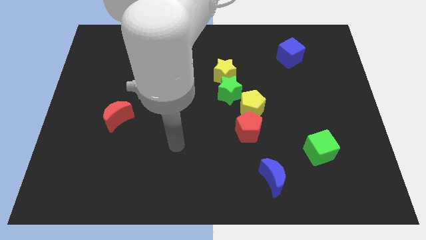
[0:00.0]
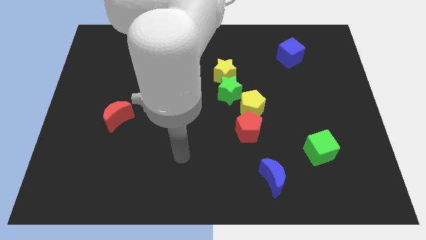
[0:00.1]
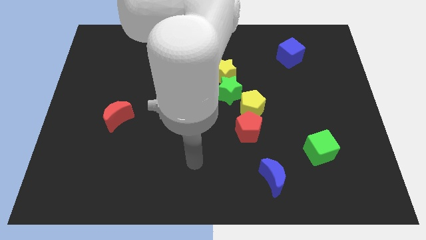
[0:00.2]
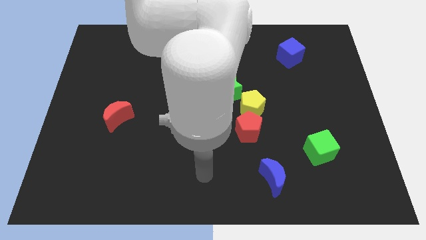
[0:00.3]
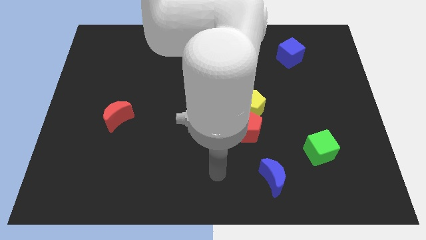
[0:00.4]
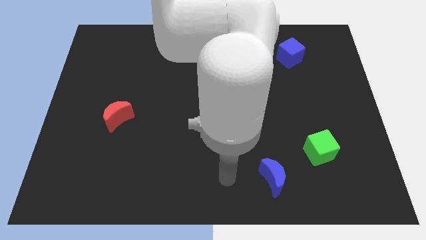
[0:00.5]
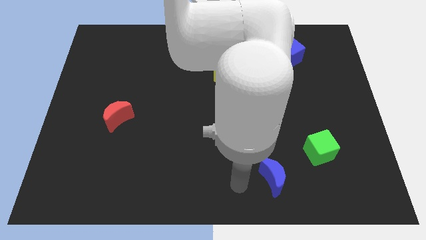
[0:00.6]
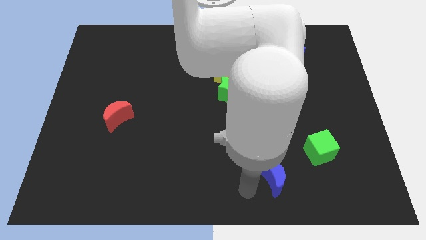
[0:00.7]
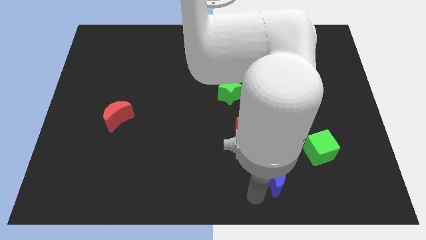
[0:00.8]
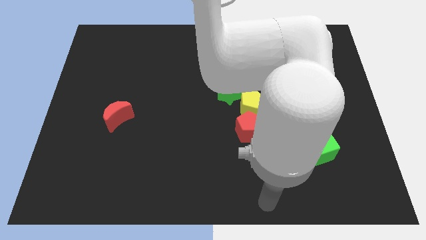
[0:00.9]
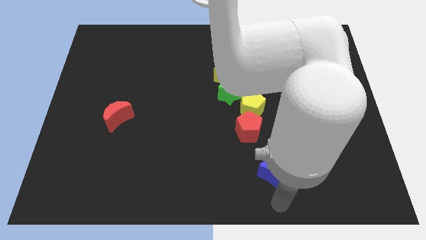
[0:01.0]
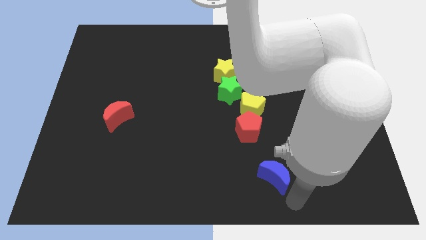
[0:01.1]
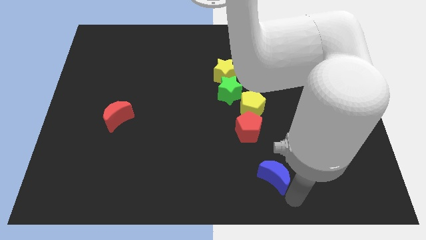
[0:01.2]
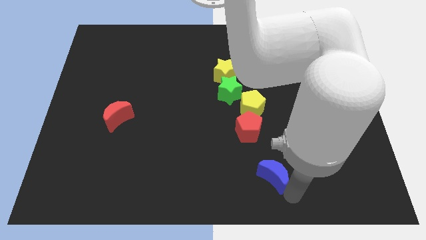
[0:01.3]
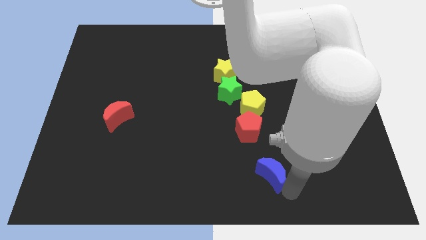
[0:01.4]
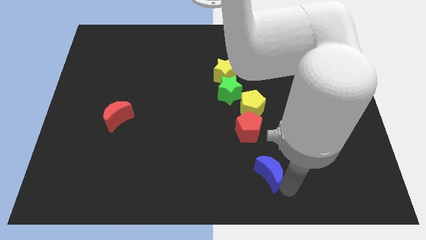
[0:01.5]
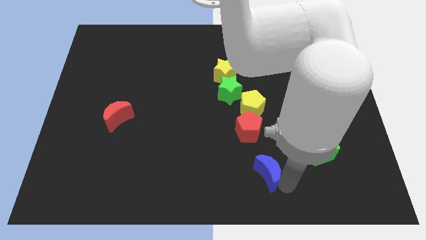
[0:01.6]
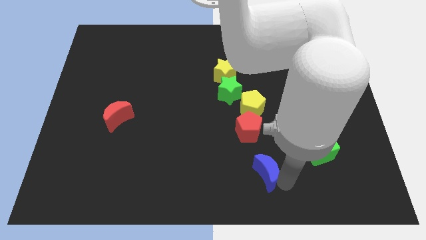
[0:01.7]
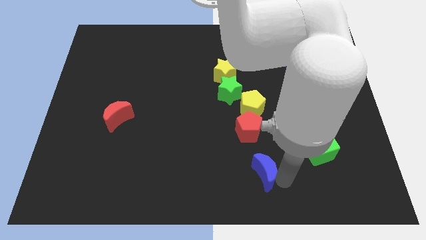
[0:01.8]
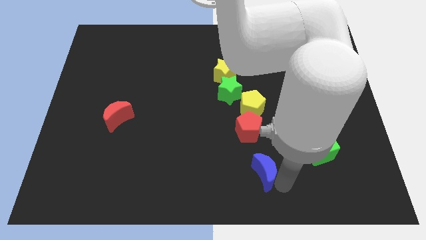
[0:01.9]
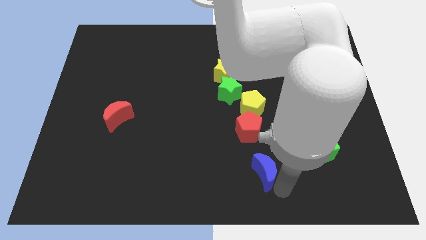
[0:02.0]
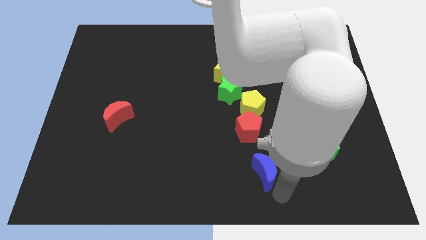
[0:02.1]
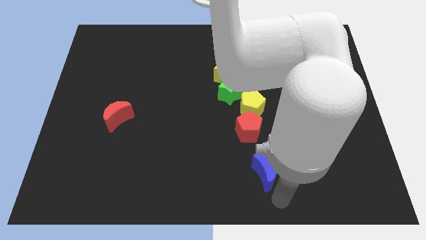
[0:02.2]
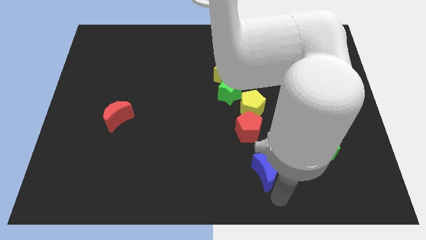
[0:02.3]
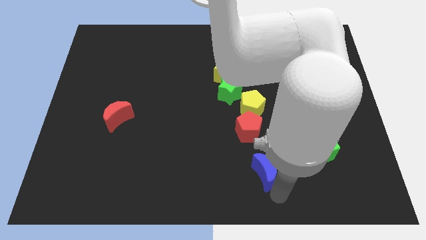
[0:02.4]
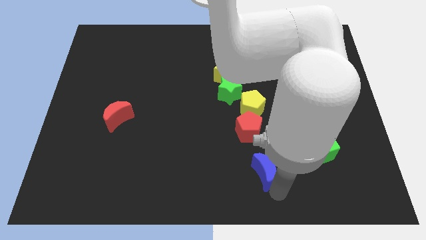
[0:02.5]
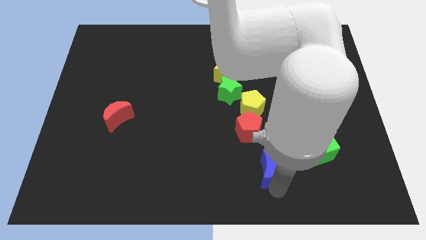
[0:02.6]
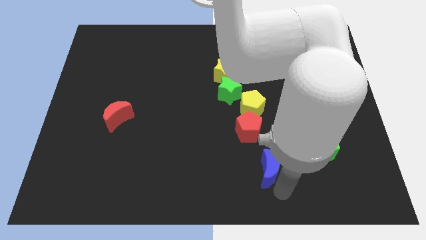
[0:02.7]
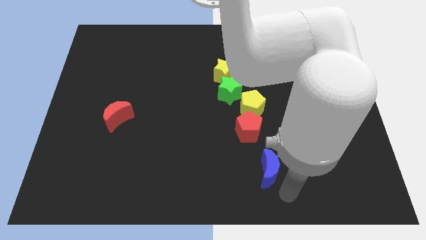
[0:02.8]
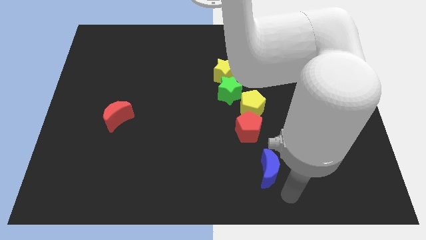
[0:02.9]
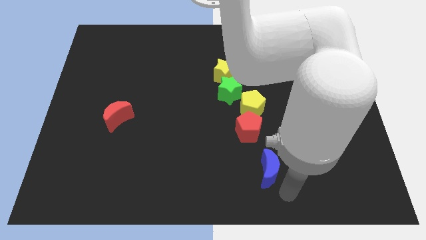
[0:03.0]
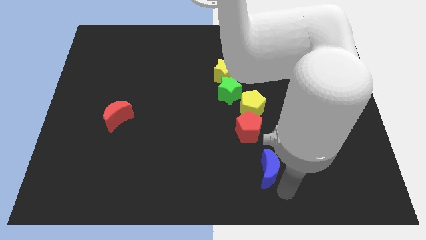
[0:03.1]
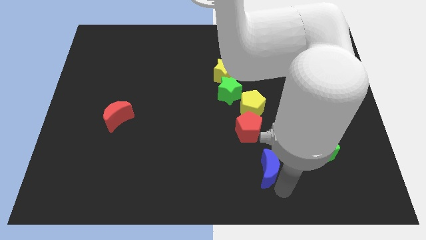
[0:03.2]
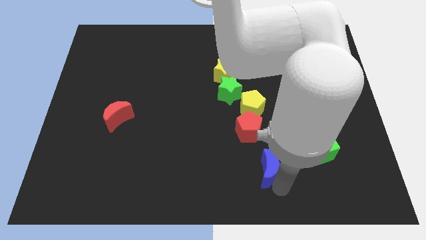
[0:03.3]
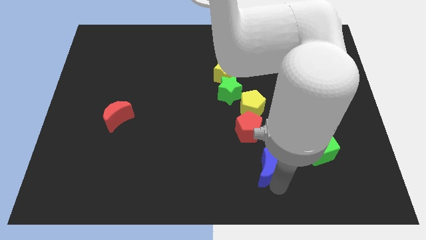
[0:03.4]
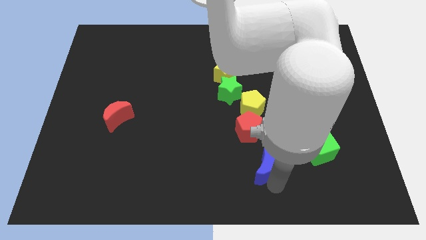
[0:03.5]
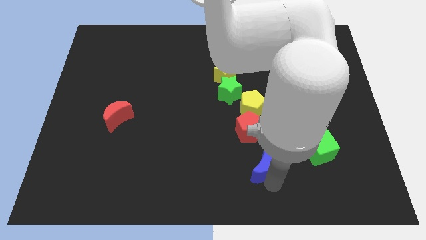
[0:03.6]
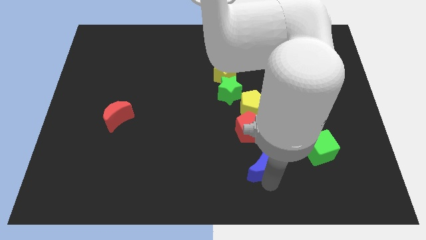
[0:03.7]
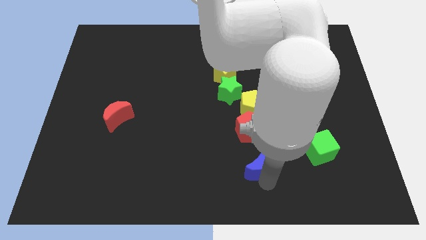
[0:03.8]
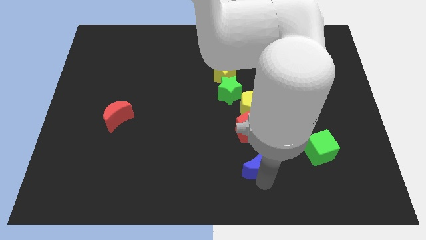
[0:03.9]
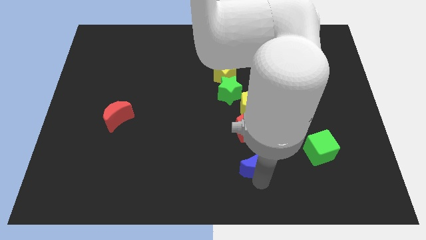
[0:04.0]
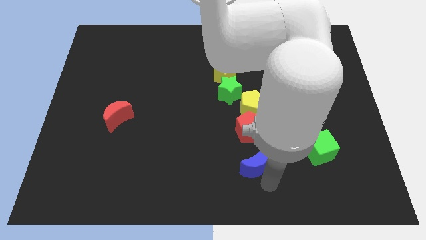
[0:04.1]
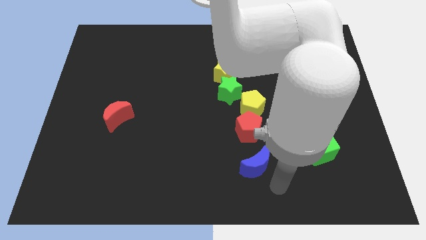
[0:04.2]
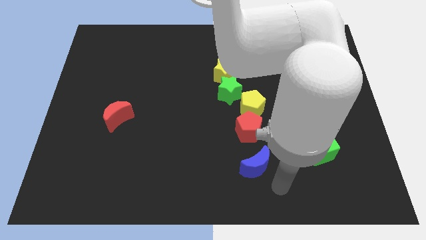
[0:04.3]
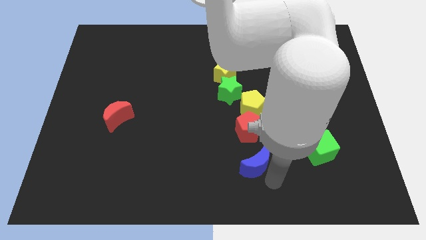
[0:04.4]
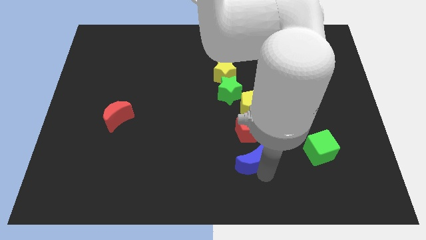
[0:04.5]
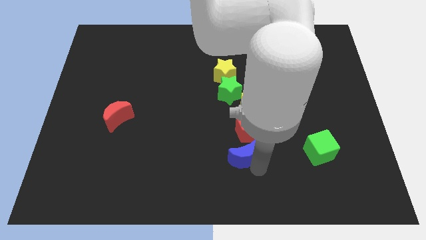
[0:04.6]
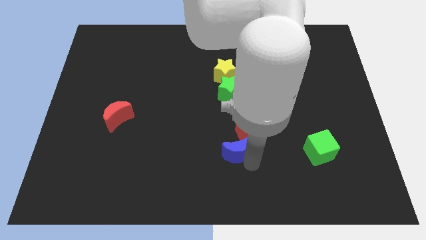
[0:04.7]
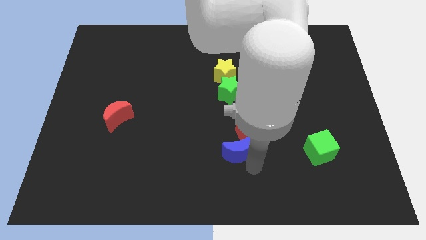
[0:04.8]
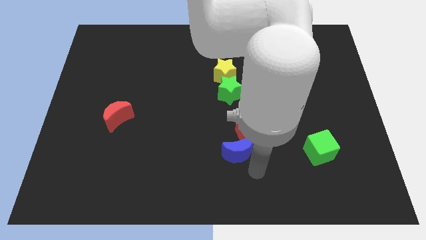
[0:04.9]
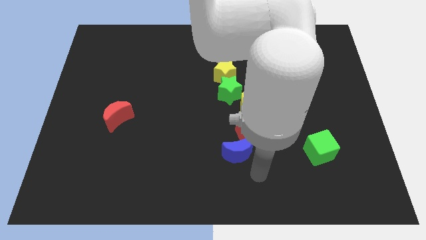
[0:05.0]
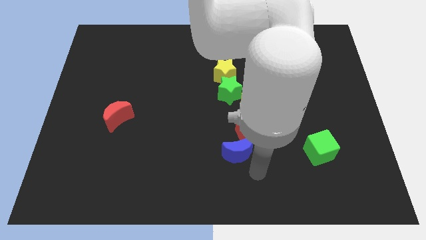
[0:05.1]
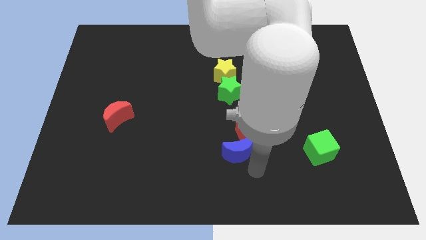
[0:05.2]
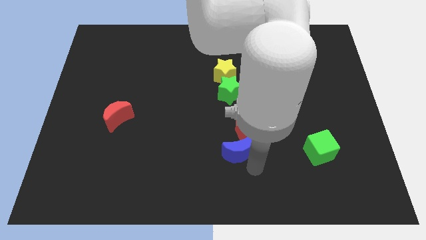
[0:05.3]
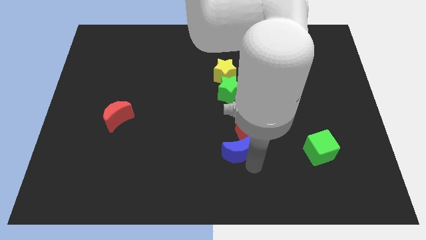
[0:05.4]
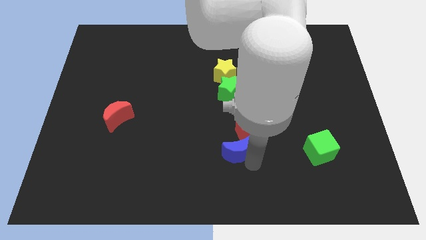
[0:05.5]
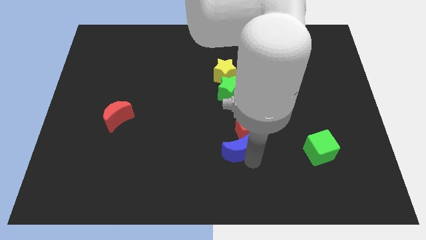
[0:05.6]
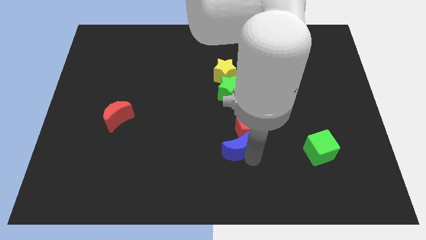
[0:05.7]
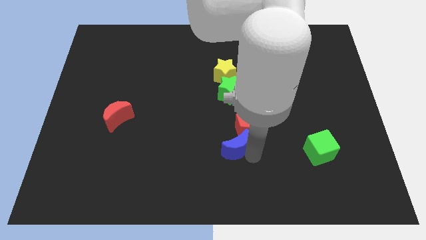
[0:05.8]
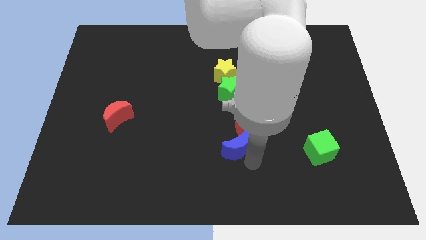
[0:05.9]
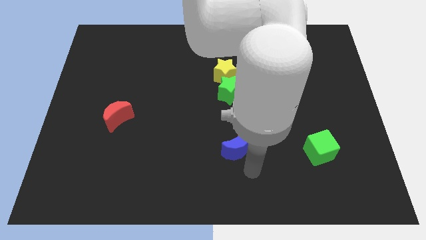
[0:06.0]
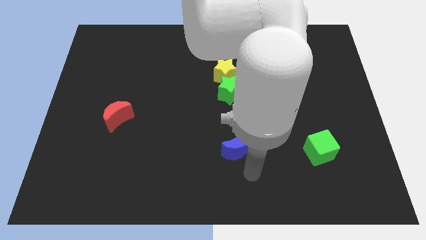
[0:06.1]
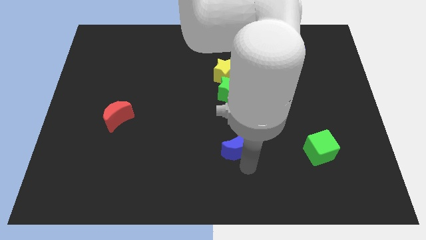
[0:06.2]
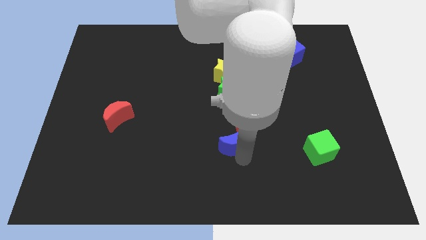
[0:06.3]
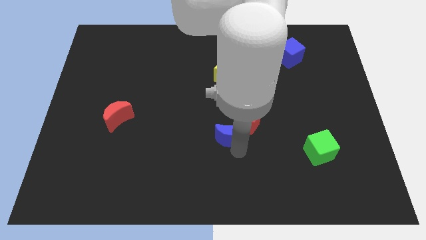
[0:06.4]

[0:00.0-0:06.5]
push the blue moon to the middle of the board
